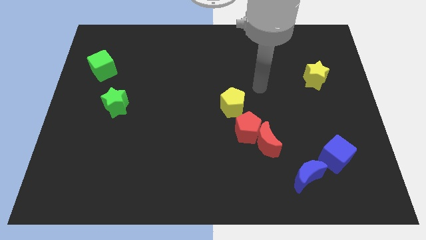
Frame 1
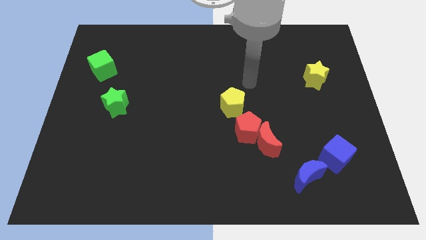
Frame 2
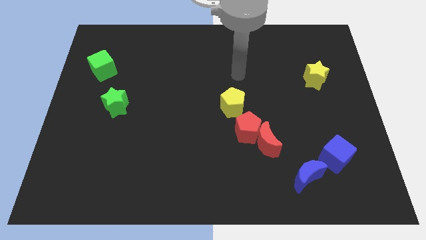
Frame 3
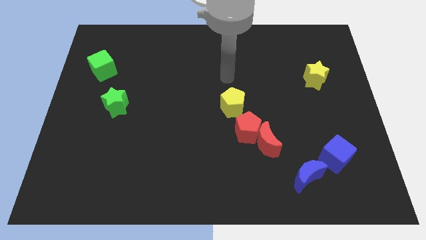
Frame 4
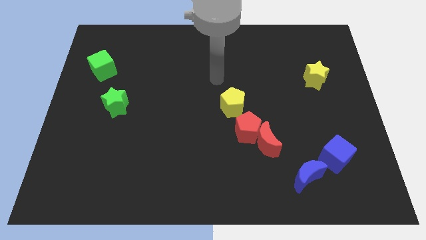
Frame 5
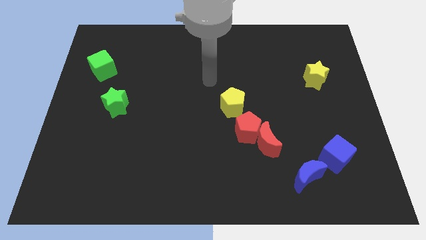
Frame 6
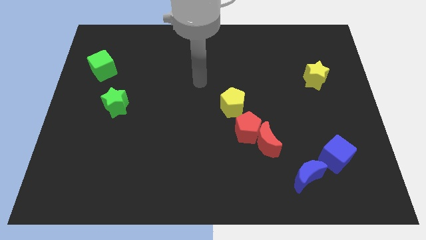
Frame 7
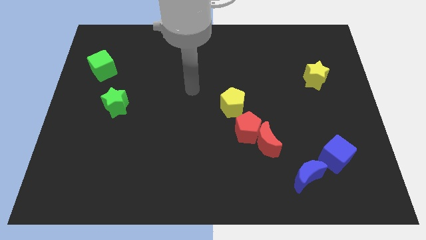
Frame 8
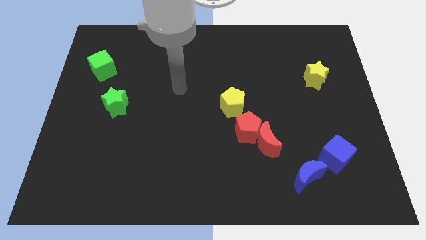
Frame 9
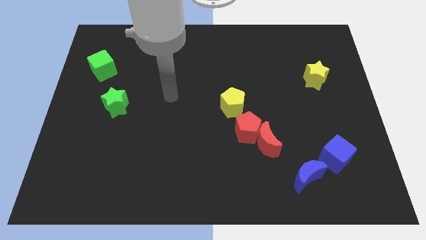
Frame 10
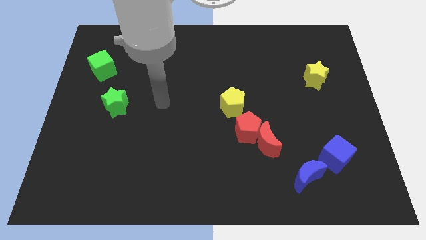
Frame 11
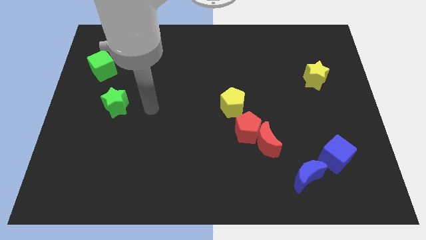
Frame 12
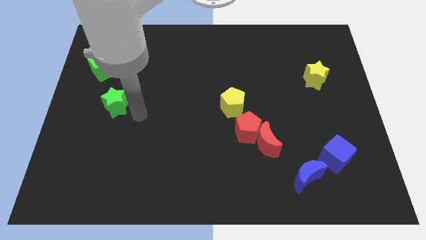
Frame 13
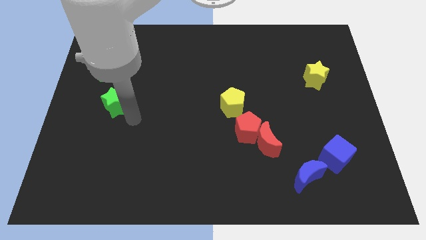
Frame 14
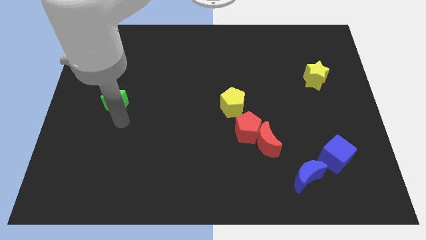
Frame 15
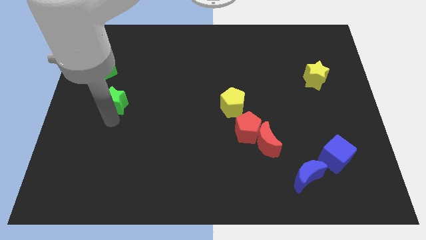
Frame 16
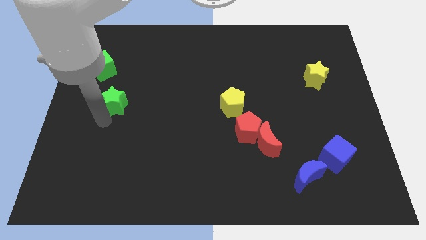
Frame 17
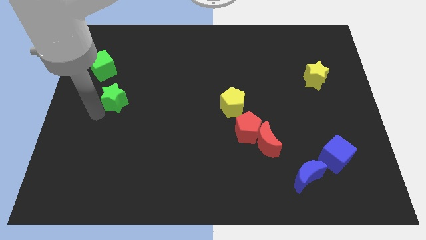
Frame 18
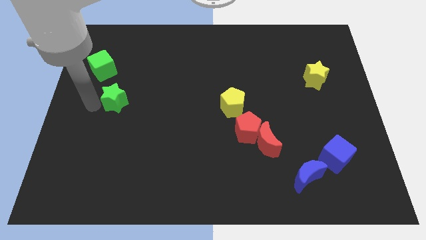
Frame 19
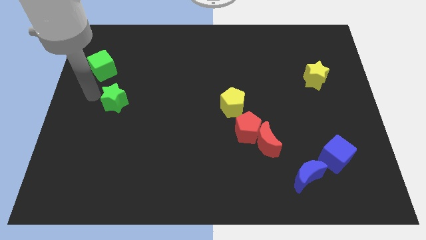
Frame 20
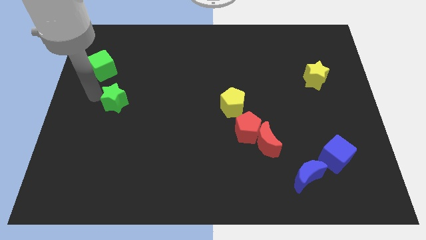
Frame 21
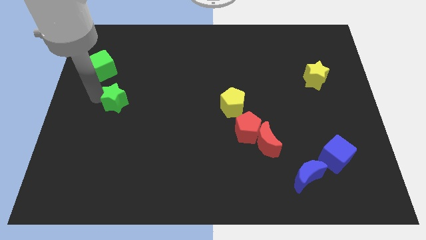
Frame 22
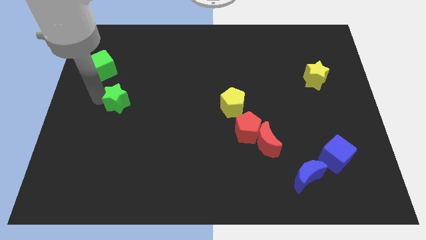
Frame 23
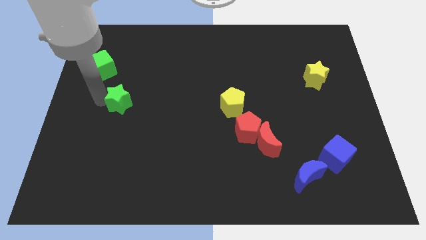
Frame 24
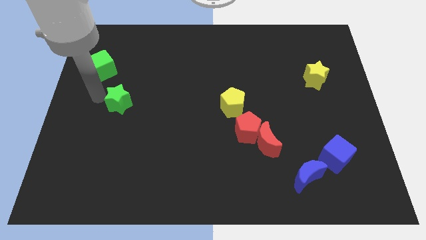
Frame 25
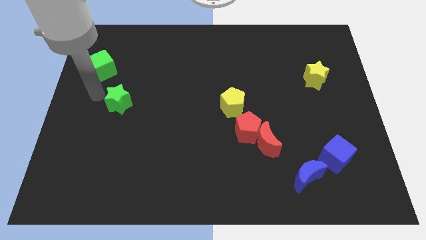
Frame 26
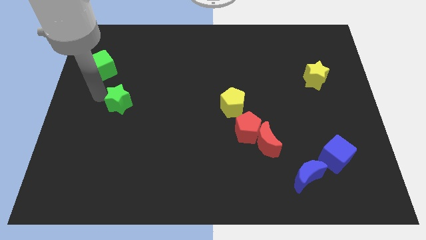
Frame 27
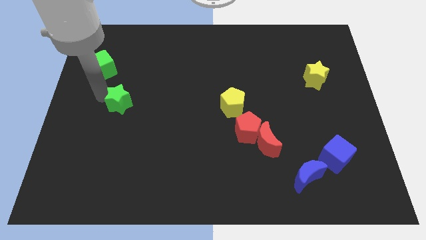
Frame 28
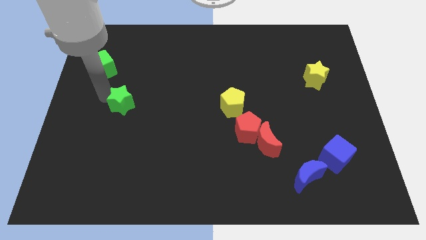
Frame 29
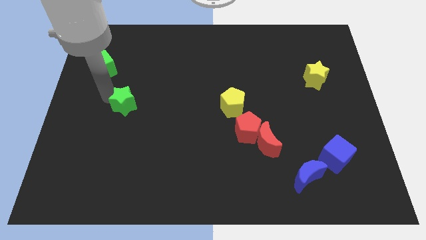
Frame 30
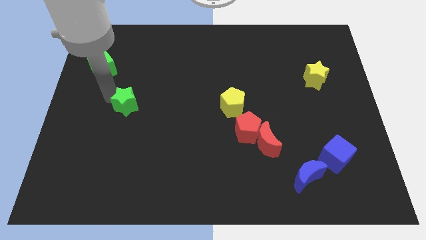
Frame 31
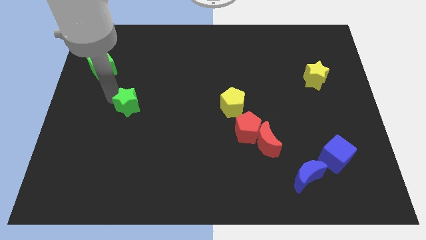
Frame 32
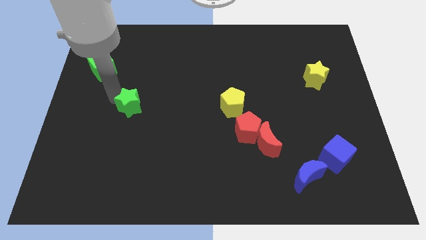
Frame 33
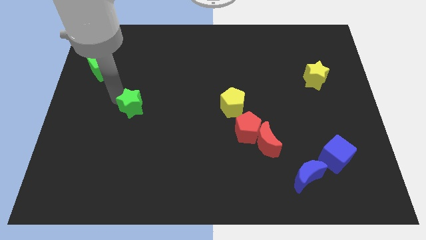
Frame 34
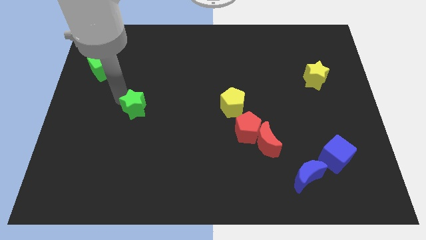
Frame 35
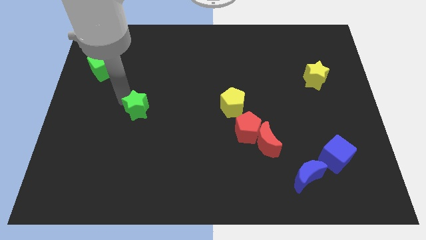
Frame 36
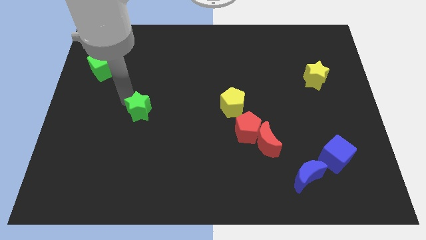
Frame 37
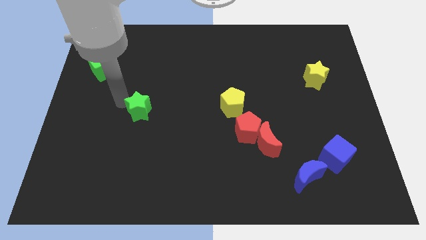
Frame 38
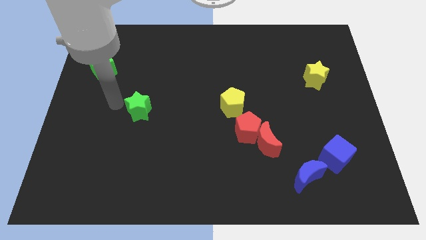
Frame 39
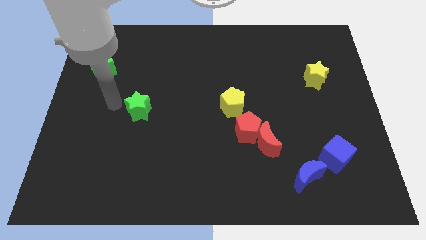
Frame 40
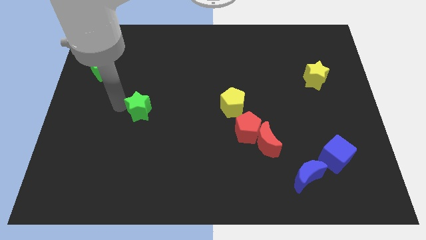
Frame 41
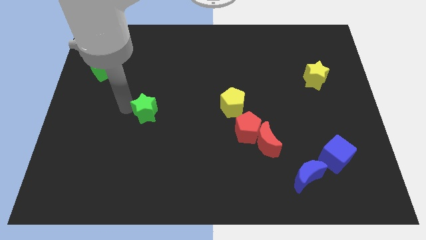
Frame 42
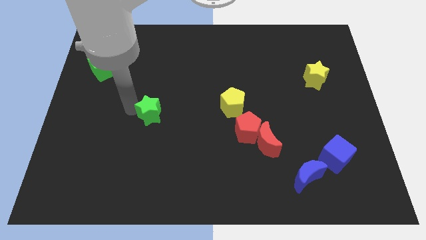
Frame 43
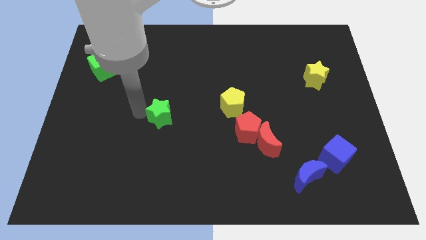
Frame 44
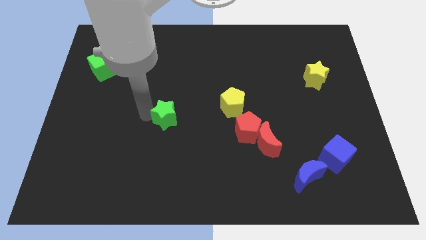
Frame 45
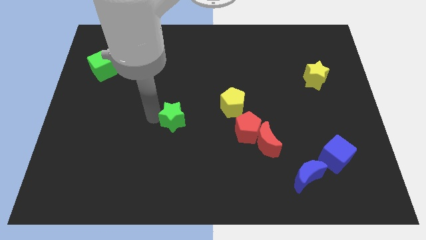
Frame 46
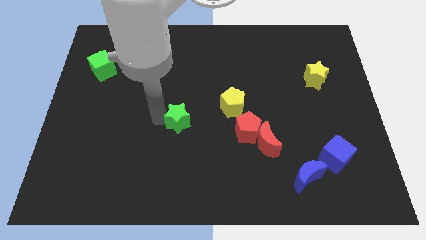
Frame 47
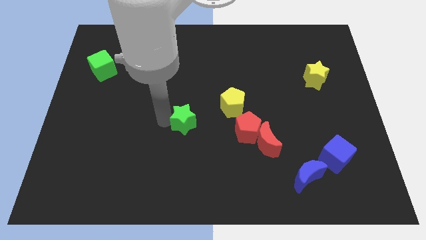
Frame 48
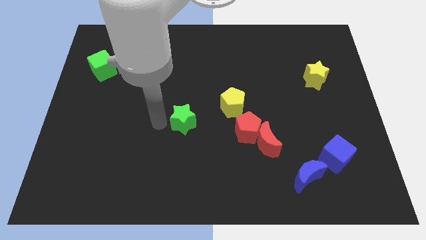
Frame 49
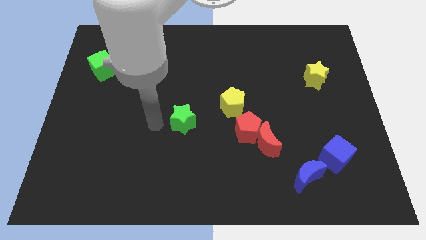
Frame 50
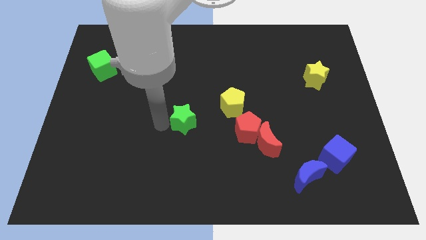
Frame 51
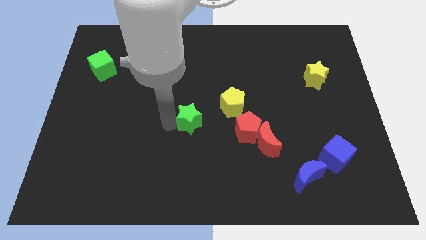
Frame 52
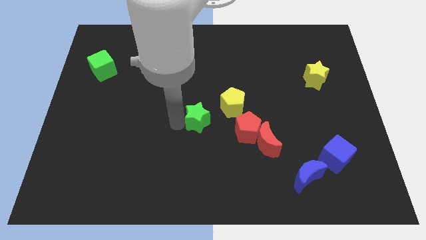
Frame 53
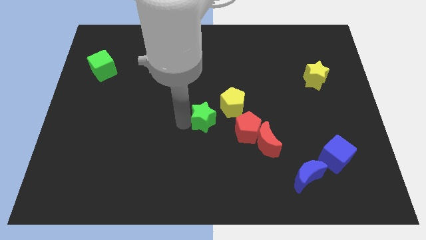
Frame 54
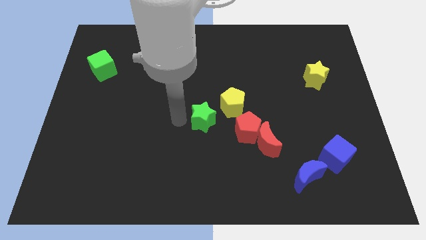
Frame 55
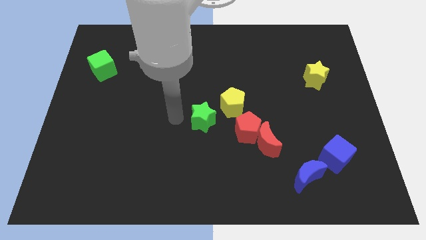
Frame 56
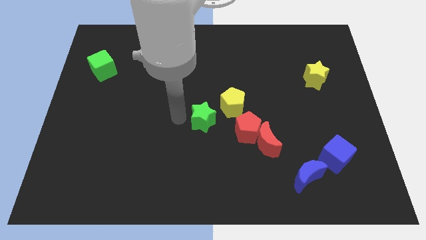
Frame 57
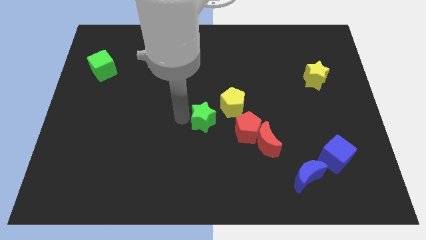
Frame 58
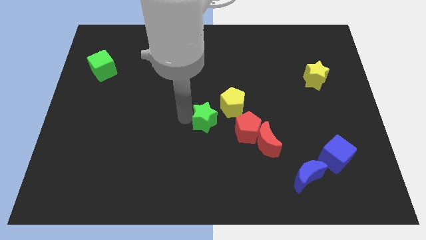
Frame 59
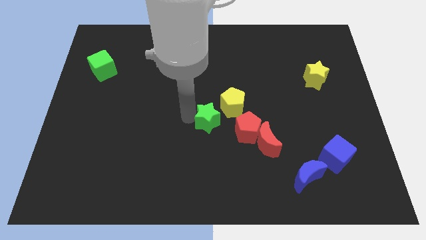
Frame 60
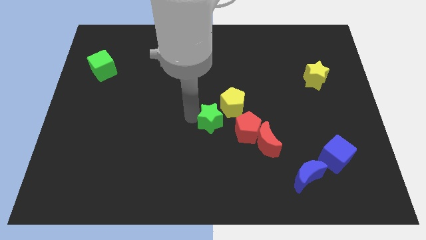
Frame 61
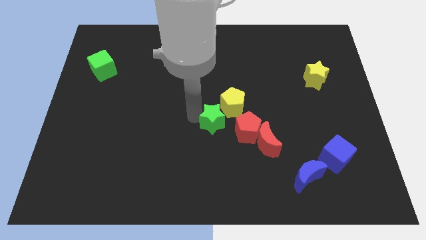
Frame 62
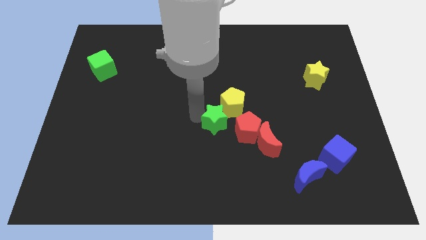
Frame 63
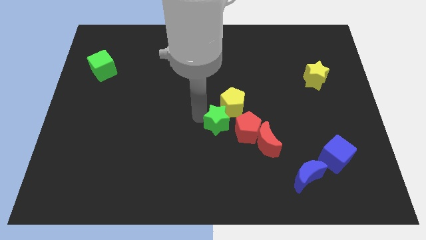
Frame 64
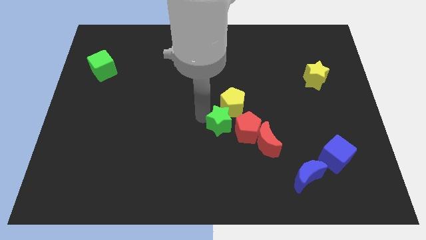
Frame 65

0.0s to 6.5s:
move the green star to the red pentagon

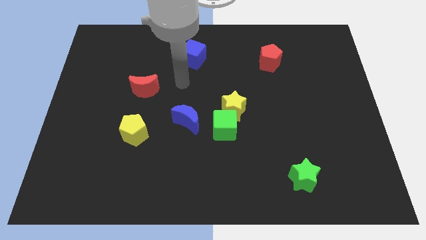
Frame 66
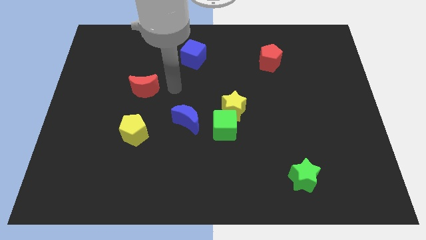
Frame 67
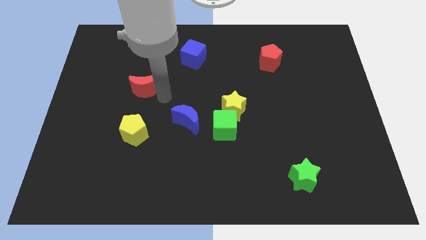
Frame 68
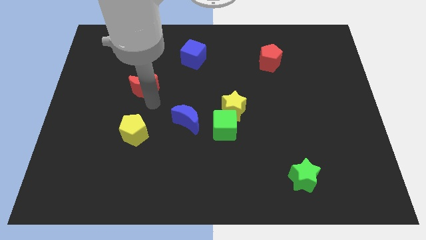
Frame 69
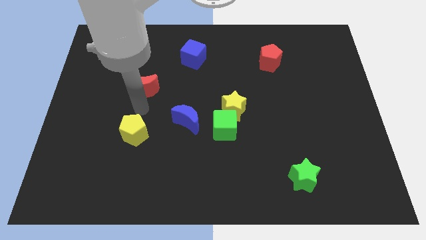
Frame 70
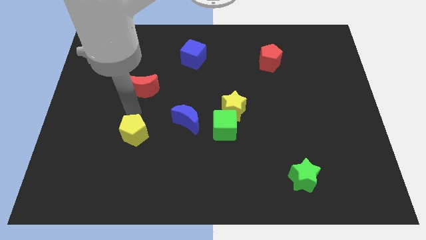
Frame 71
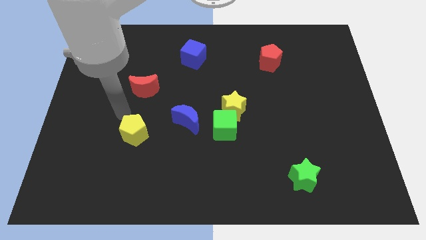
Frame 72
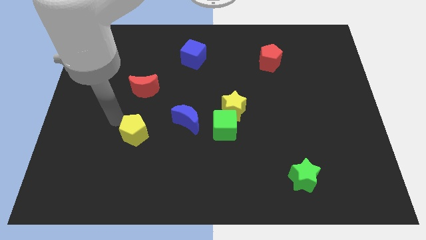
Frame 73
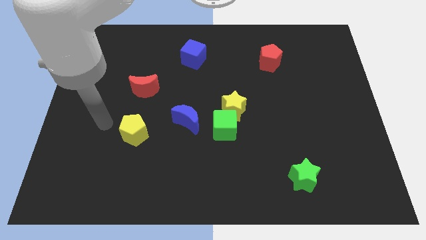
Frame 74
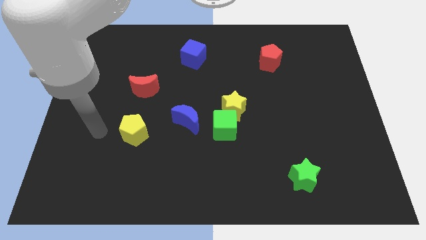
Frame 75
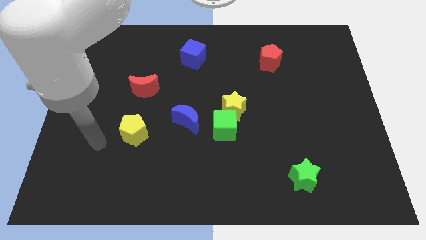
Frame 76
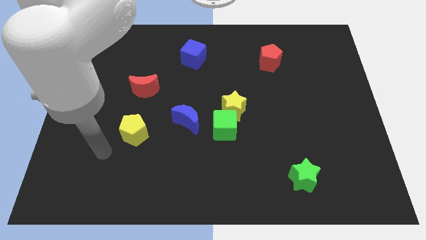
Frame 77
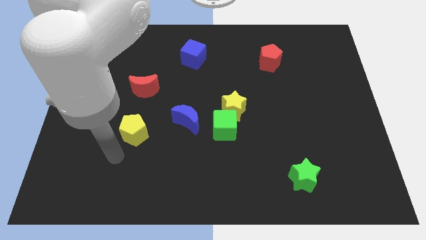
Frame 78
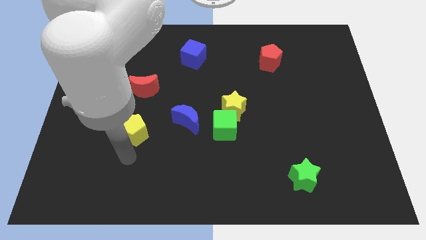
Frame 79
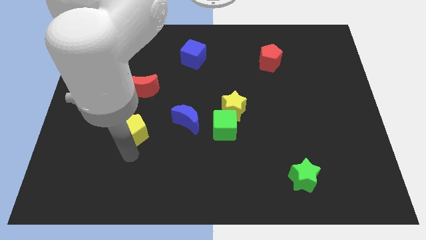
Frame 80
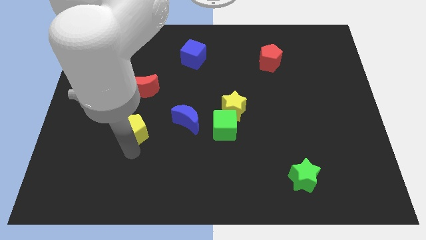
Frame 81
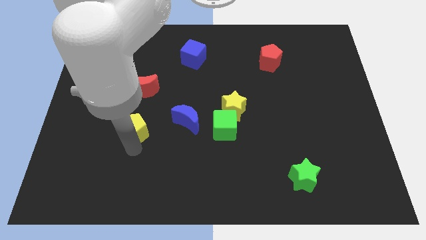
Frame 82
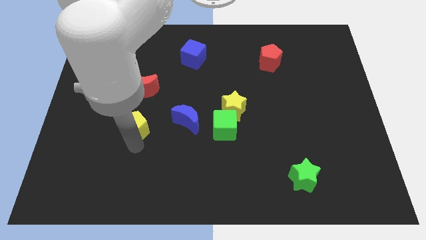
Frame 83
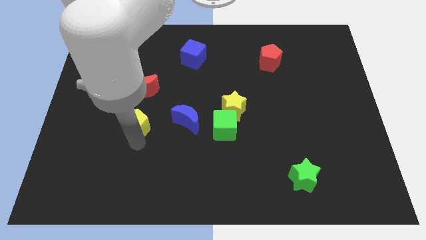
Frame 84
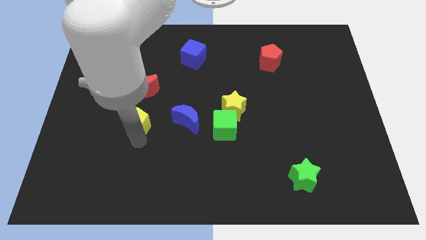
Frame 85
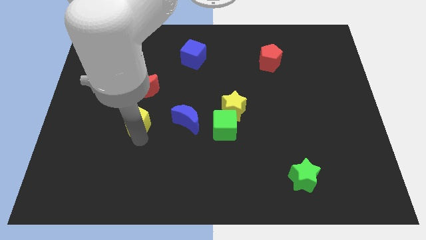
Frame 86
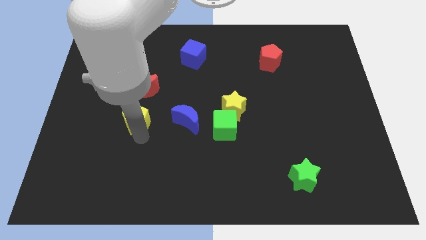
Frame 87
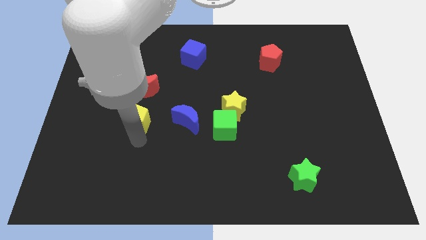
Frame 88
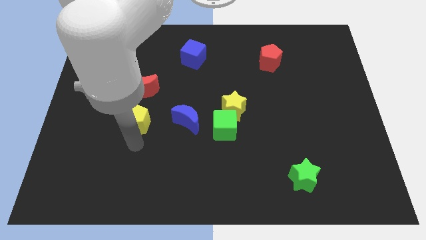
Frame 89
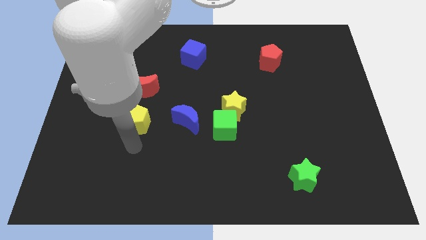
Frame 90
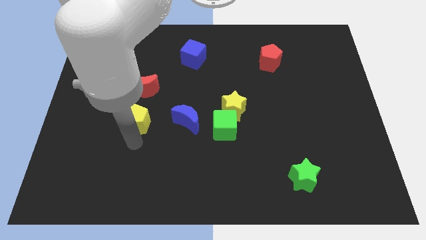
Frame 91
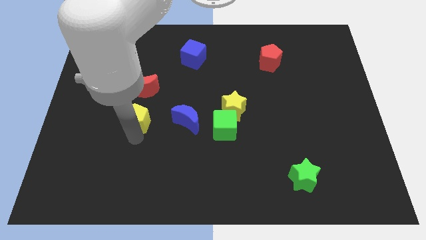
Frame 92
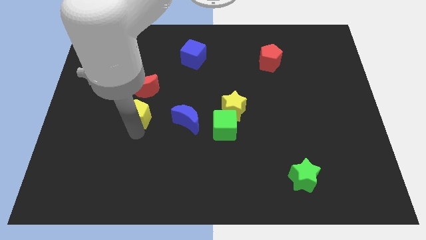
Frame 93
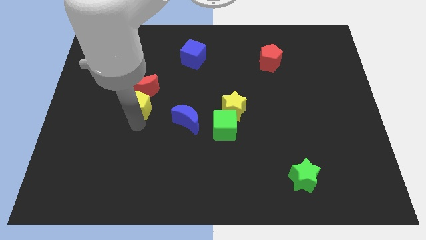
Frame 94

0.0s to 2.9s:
slide the yellow pentagon towards the red moon
